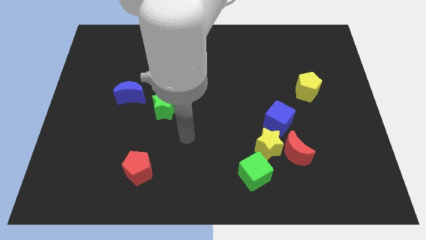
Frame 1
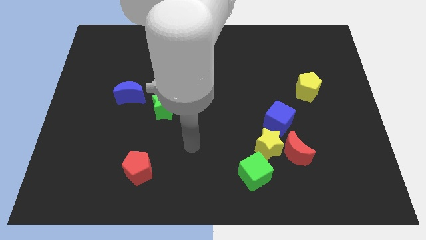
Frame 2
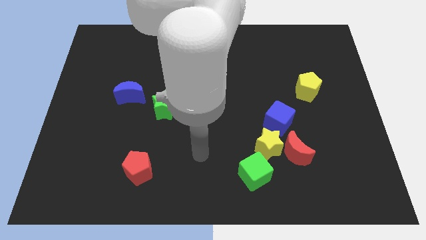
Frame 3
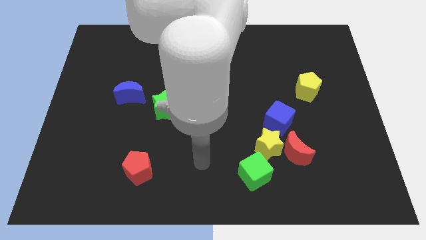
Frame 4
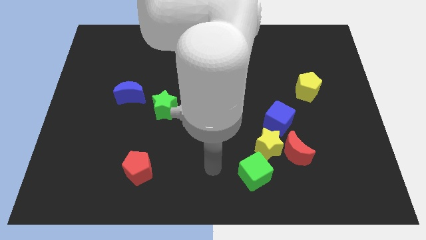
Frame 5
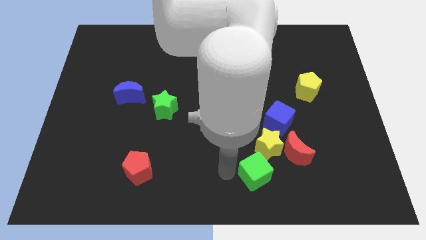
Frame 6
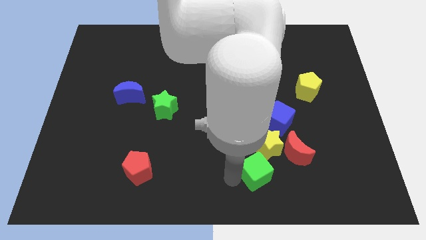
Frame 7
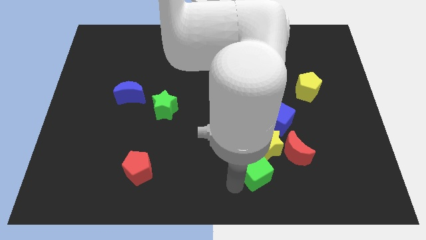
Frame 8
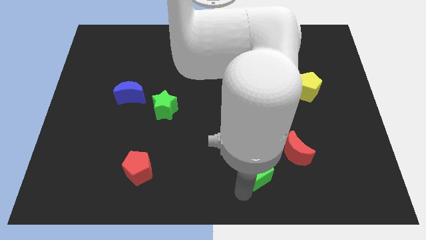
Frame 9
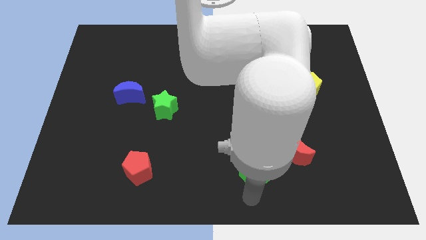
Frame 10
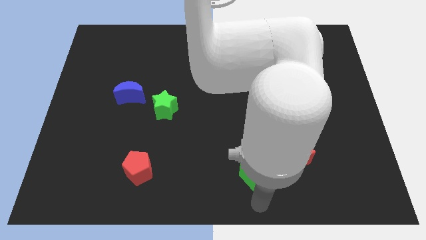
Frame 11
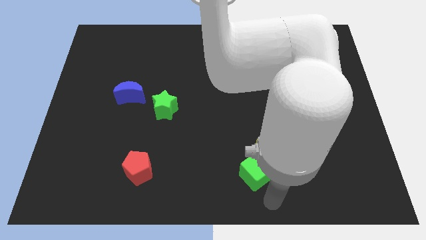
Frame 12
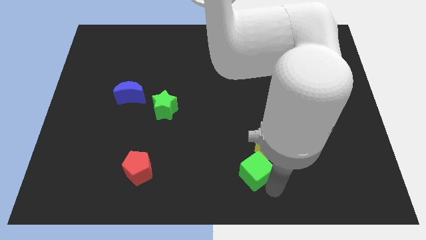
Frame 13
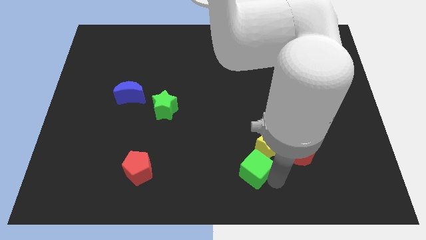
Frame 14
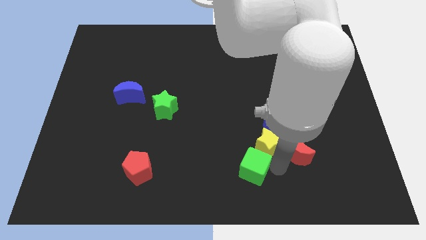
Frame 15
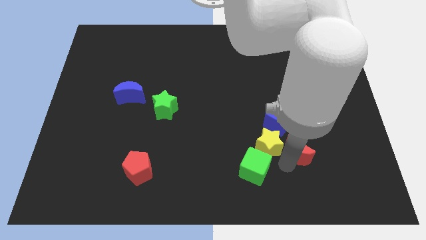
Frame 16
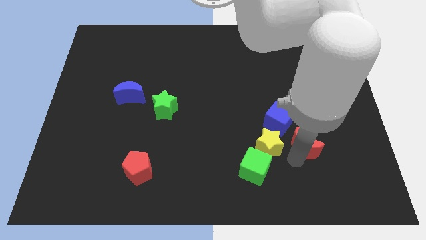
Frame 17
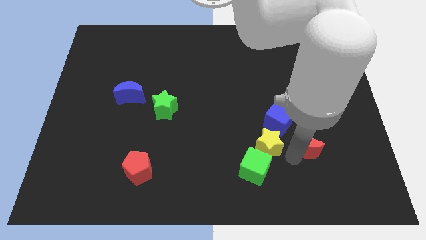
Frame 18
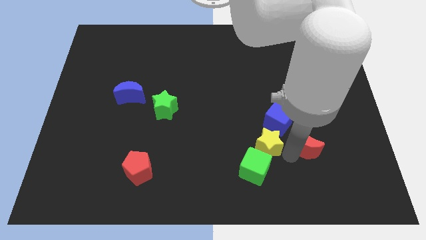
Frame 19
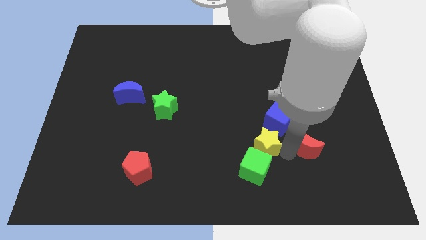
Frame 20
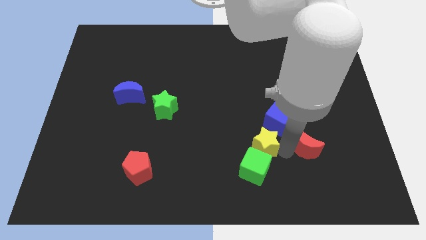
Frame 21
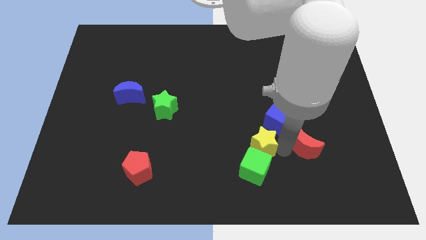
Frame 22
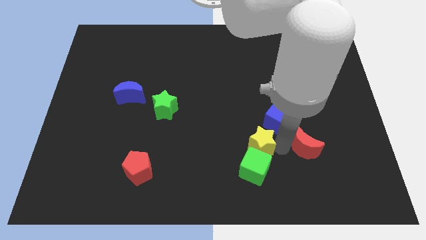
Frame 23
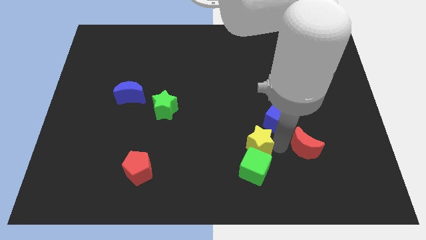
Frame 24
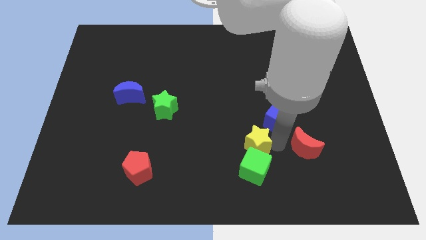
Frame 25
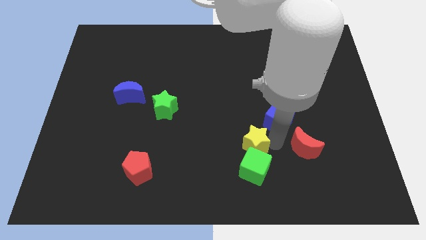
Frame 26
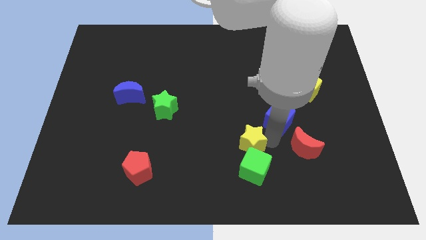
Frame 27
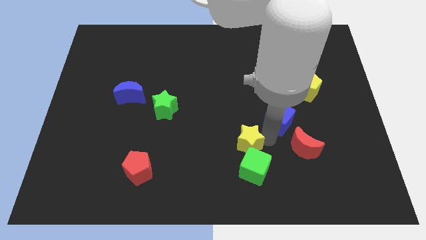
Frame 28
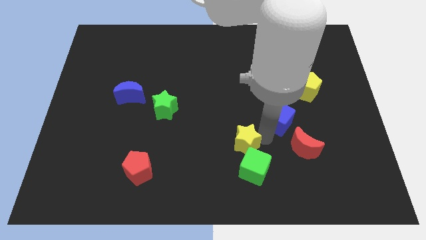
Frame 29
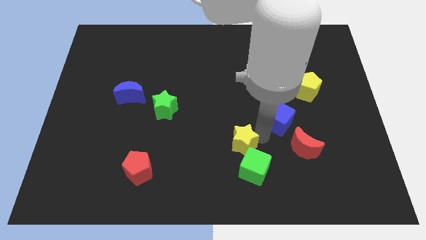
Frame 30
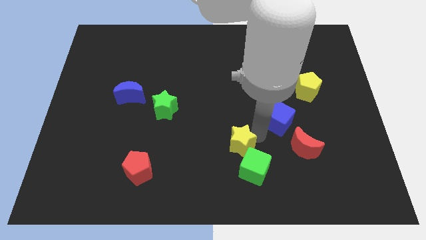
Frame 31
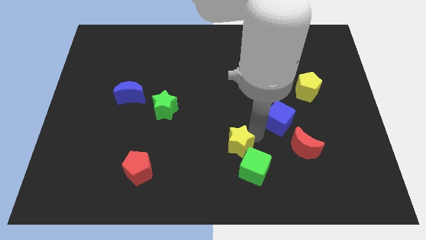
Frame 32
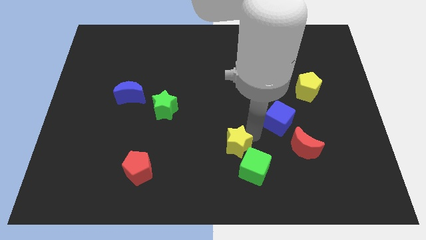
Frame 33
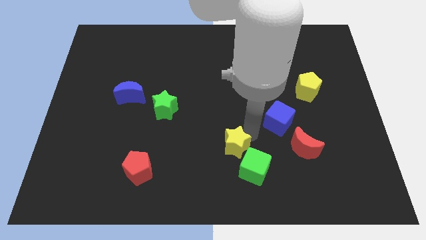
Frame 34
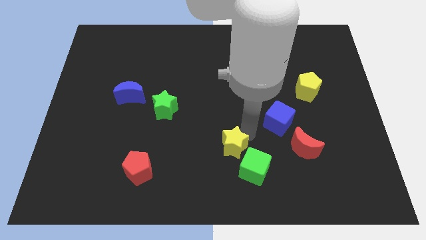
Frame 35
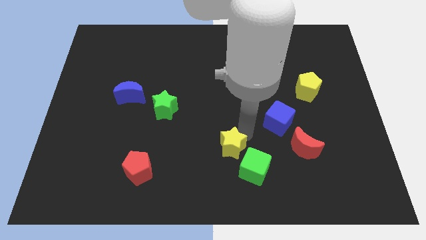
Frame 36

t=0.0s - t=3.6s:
separate the yellow star from the clump

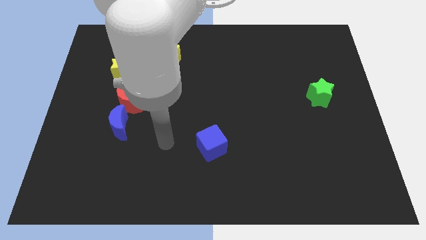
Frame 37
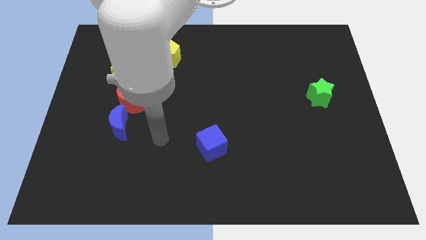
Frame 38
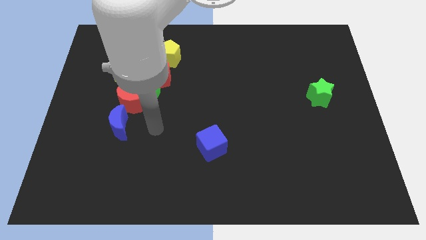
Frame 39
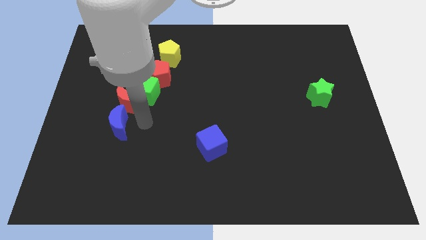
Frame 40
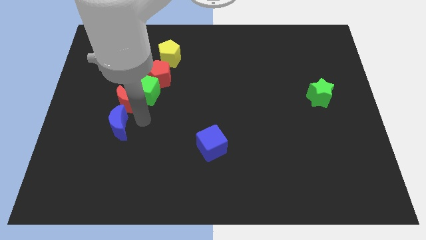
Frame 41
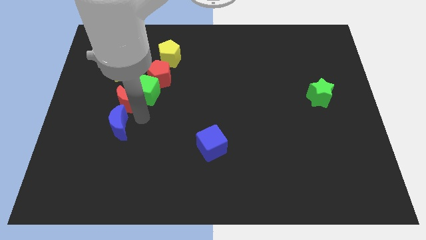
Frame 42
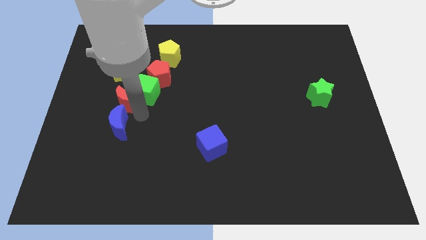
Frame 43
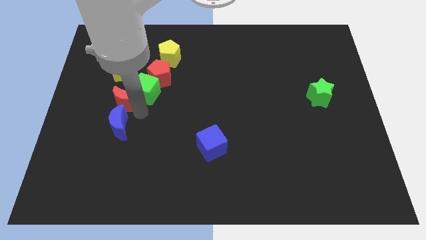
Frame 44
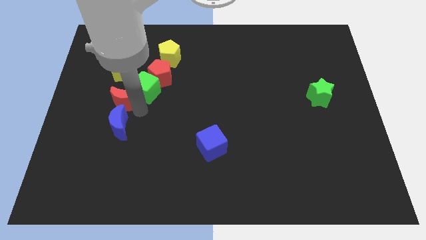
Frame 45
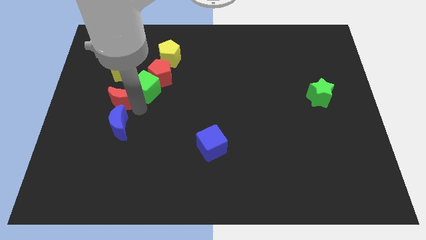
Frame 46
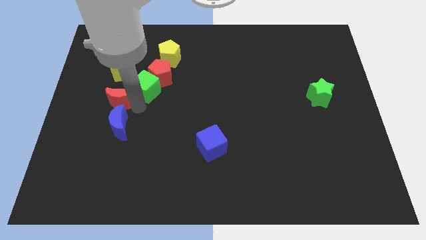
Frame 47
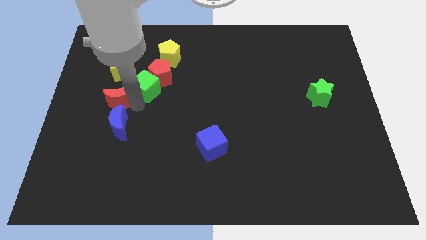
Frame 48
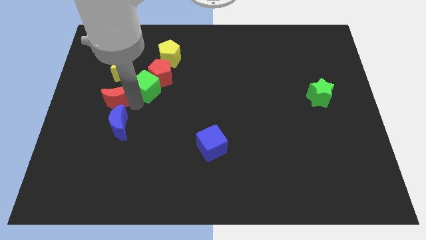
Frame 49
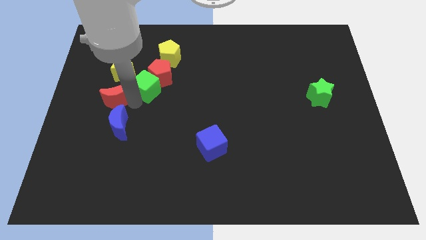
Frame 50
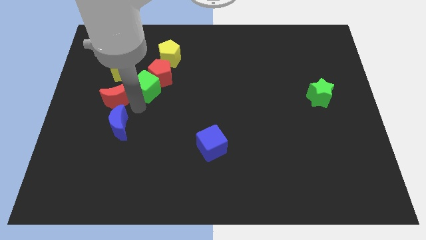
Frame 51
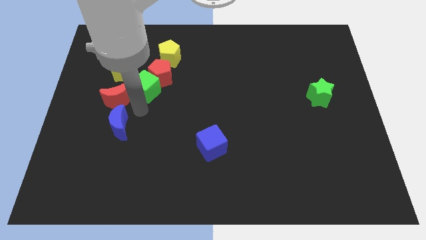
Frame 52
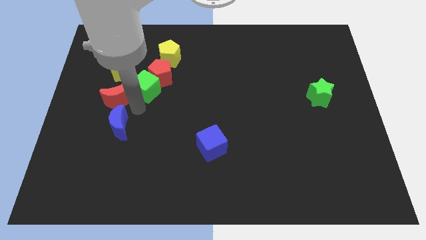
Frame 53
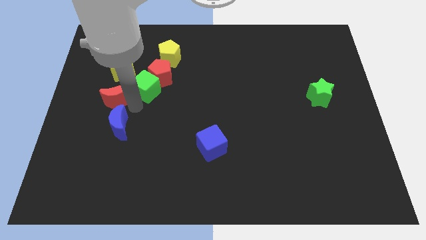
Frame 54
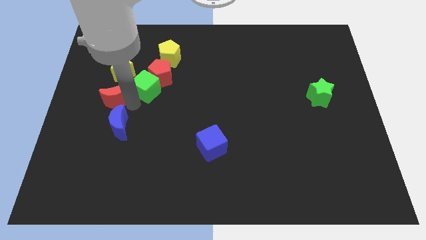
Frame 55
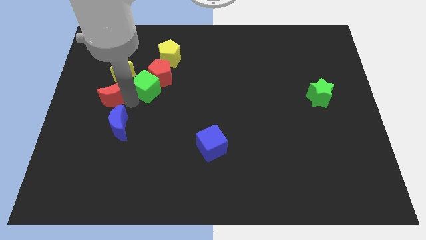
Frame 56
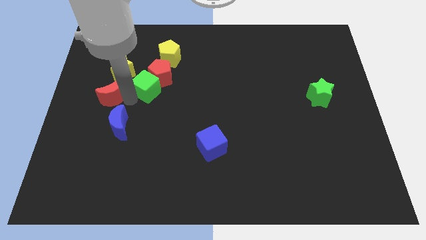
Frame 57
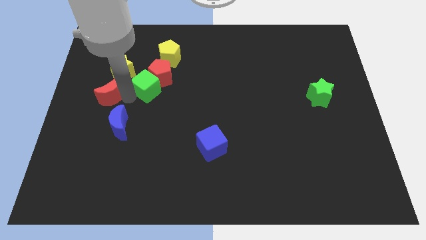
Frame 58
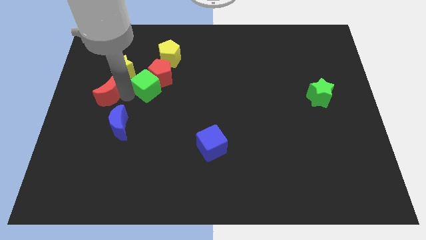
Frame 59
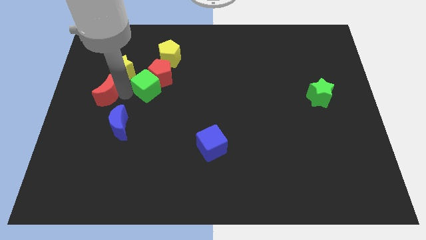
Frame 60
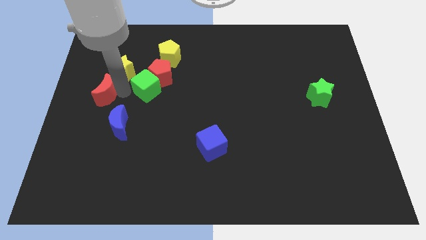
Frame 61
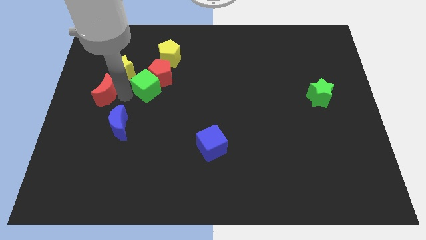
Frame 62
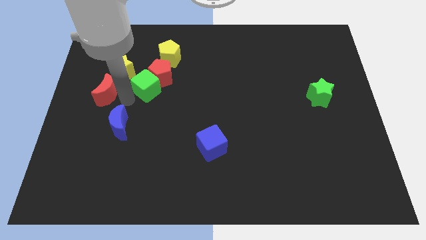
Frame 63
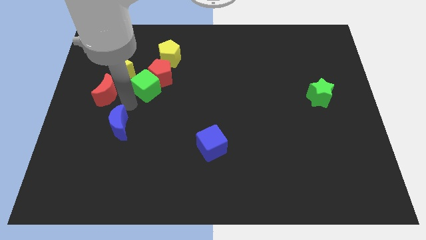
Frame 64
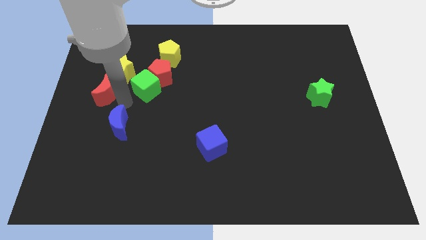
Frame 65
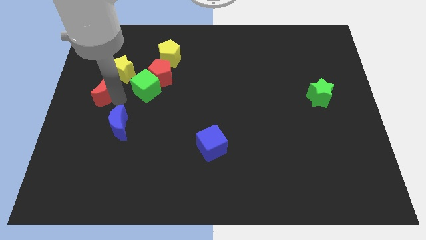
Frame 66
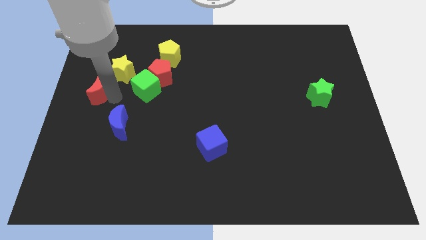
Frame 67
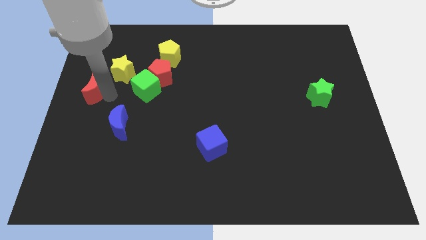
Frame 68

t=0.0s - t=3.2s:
move the red moon away from the green cube and blue moon

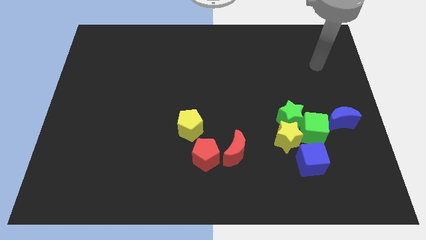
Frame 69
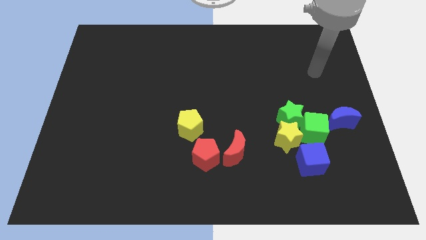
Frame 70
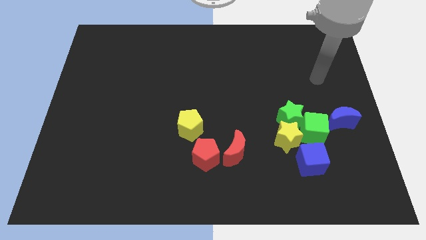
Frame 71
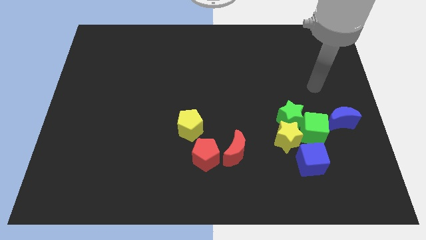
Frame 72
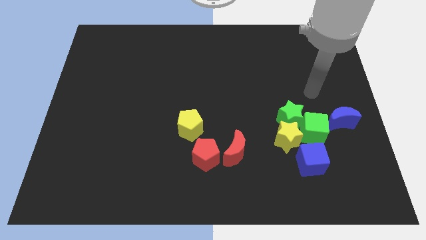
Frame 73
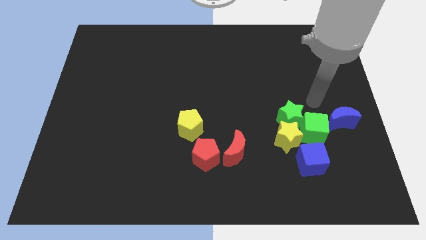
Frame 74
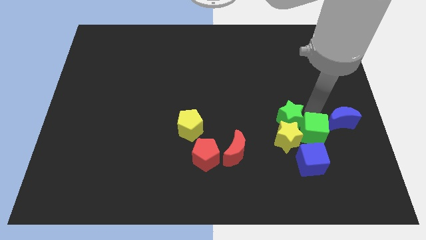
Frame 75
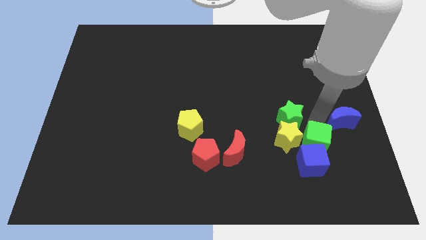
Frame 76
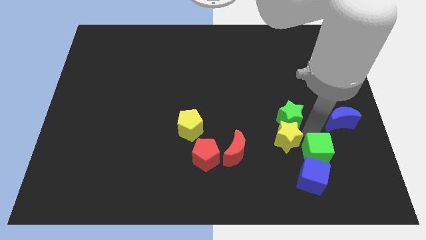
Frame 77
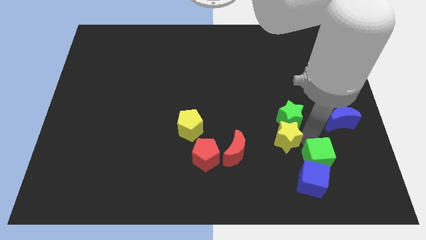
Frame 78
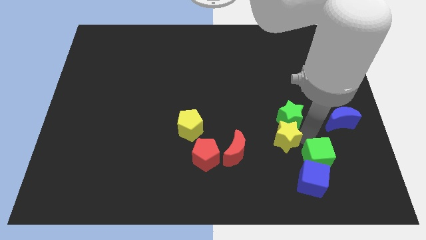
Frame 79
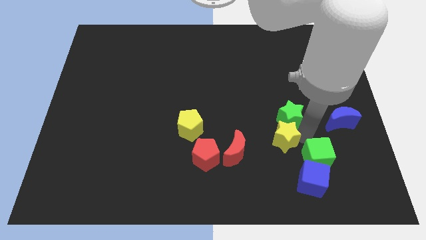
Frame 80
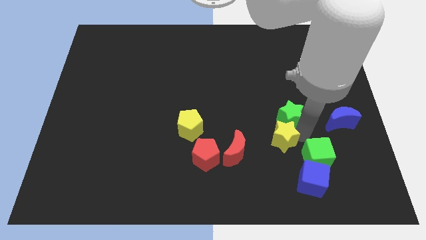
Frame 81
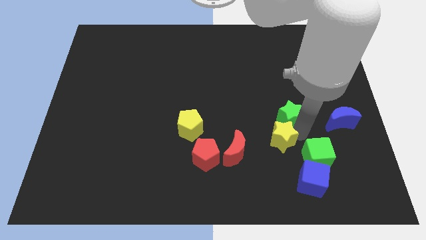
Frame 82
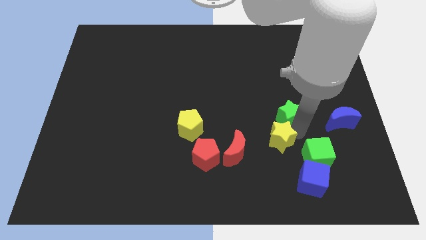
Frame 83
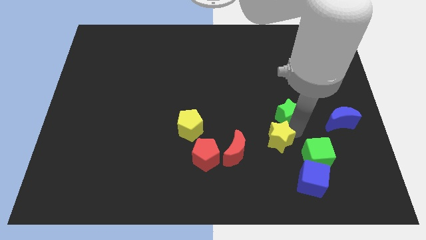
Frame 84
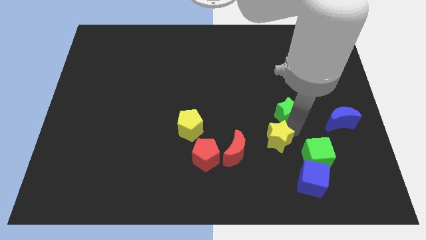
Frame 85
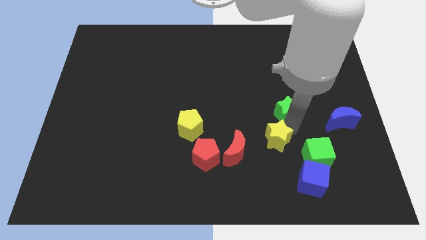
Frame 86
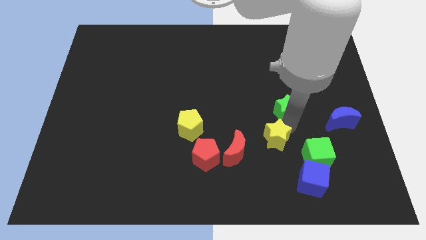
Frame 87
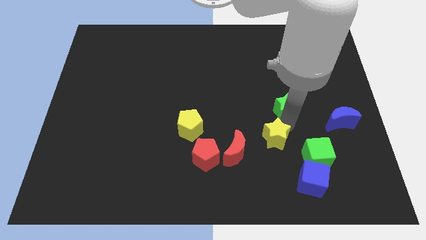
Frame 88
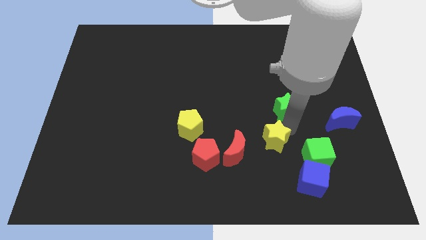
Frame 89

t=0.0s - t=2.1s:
pull the green star apart from the yellow star and green cube

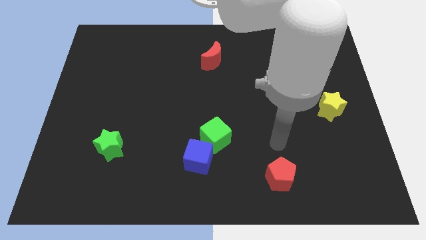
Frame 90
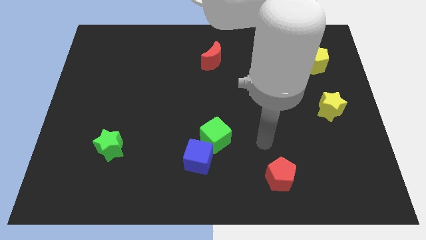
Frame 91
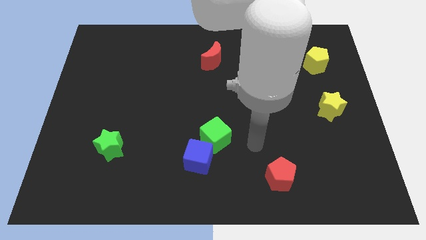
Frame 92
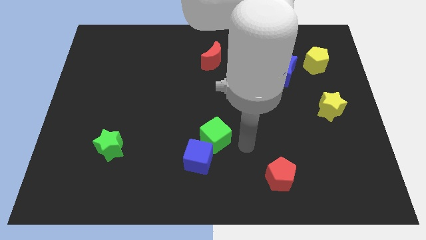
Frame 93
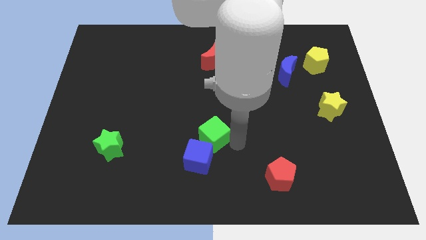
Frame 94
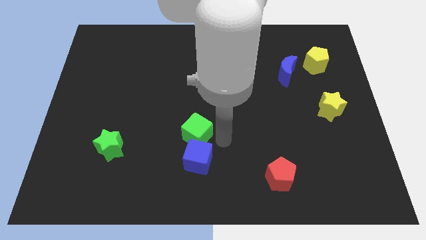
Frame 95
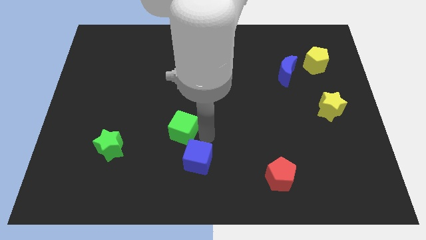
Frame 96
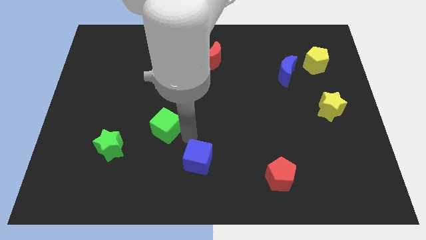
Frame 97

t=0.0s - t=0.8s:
pull the blue cube apart from the green cube
